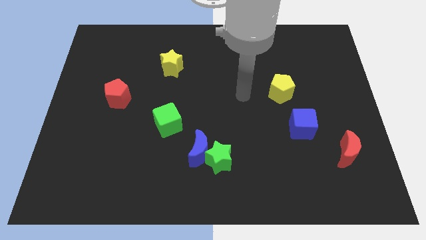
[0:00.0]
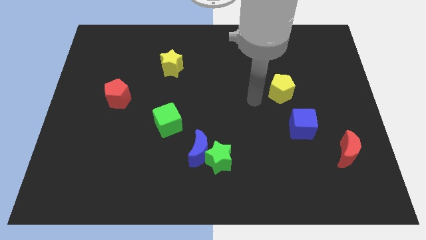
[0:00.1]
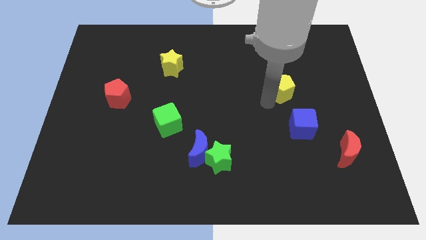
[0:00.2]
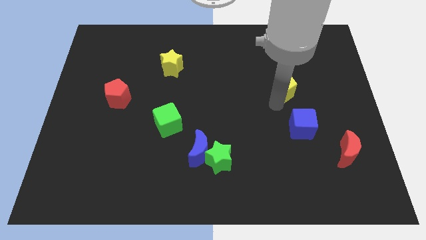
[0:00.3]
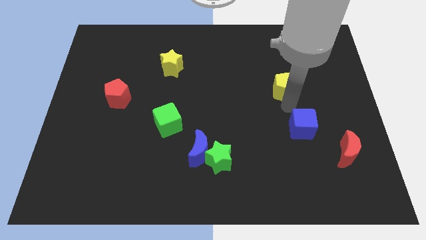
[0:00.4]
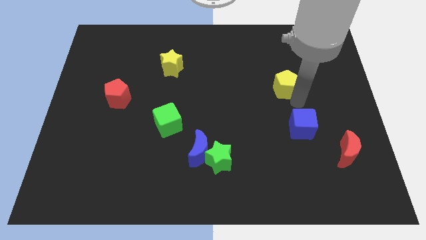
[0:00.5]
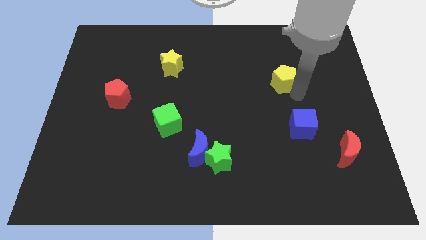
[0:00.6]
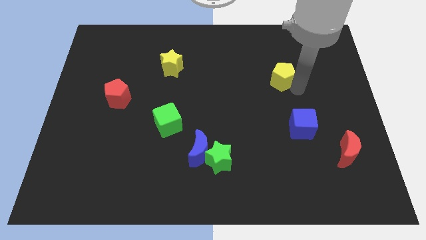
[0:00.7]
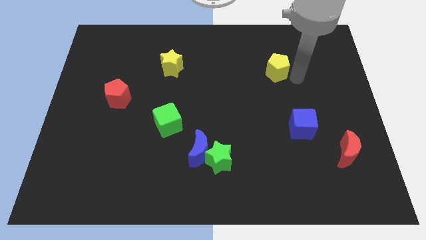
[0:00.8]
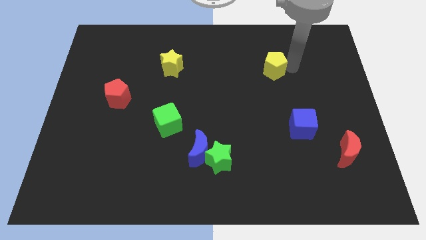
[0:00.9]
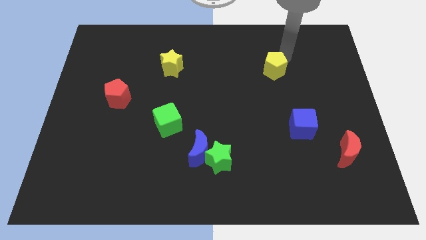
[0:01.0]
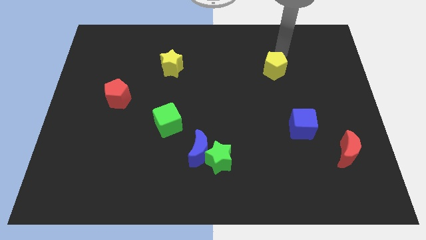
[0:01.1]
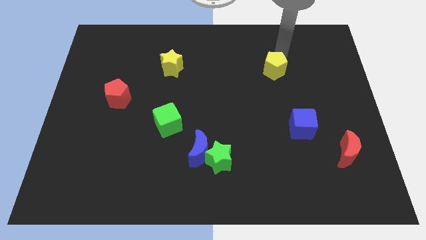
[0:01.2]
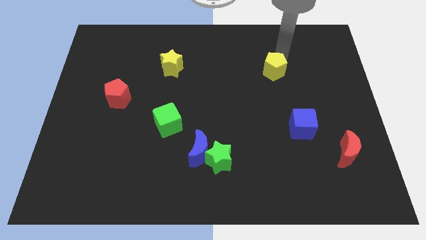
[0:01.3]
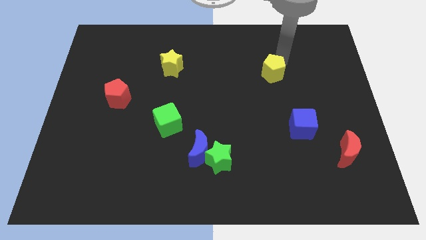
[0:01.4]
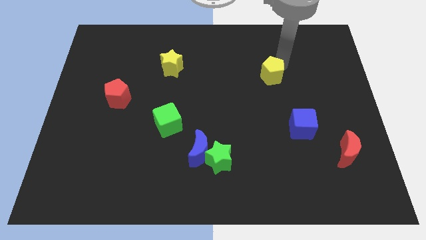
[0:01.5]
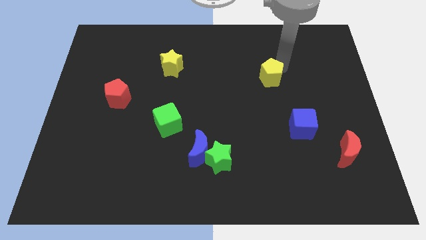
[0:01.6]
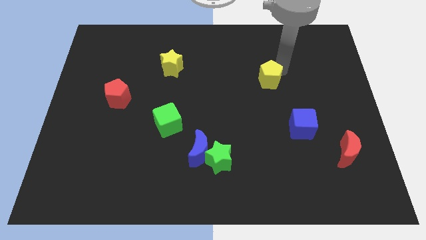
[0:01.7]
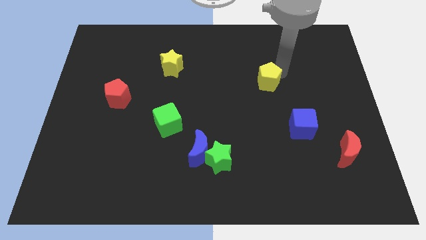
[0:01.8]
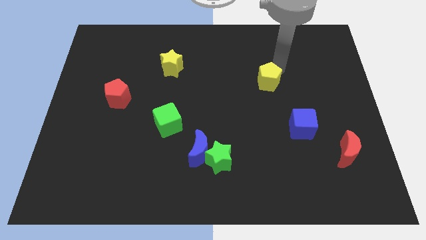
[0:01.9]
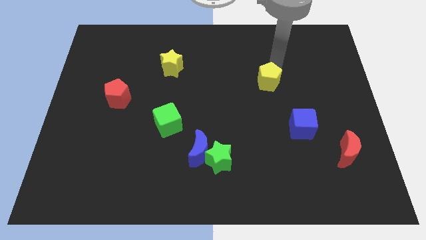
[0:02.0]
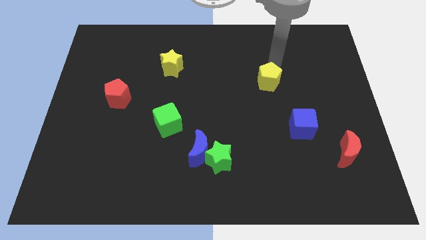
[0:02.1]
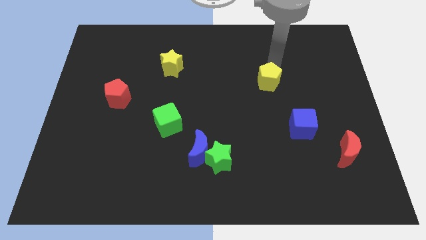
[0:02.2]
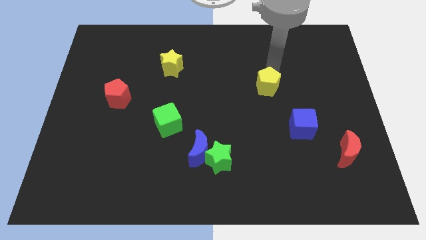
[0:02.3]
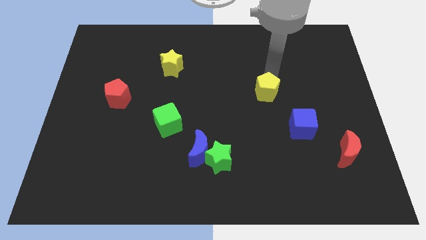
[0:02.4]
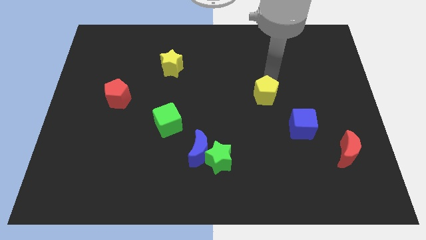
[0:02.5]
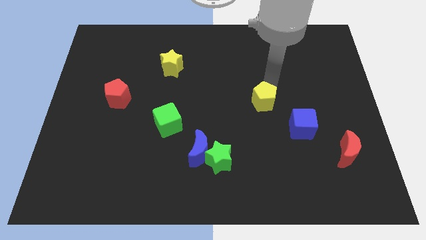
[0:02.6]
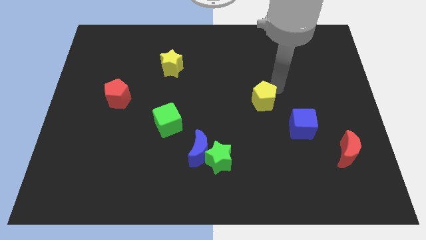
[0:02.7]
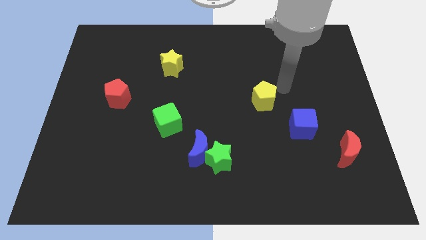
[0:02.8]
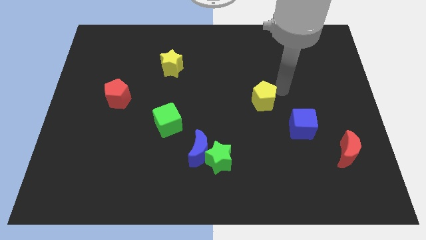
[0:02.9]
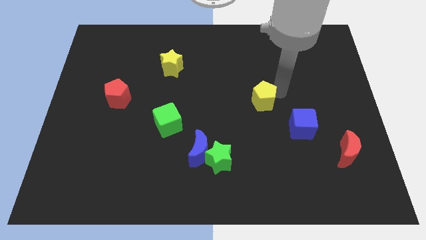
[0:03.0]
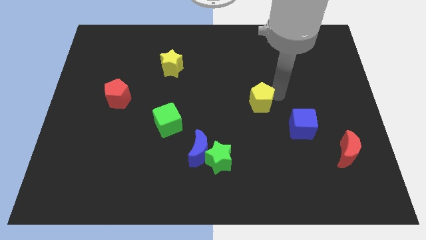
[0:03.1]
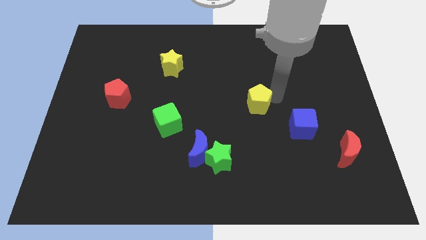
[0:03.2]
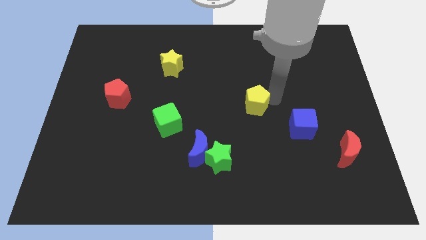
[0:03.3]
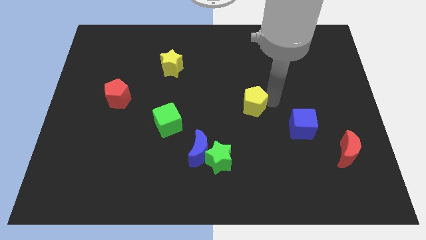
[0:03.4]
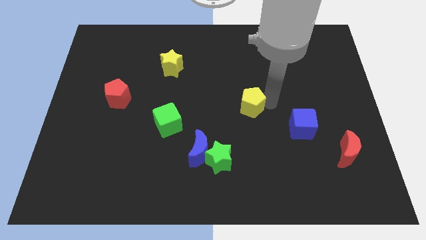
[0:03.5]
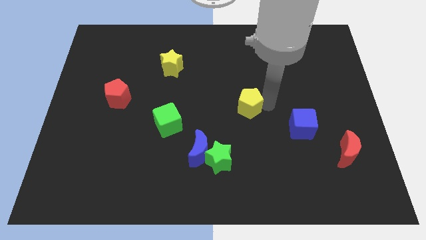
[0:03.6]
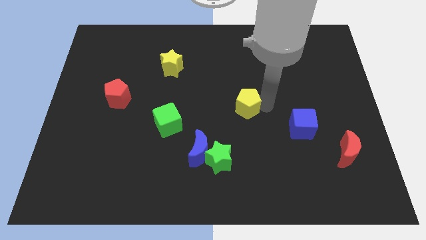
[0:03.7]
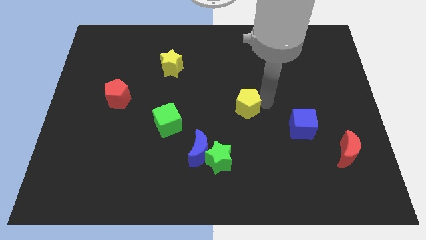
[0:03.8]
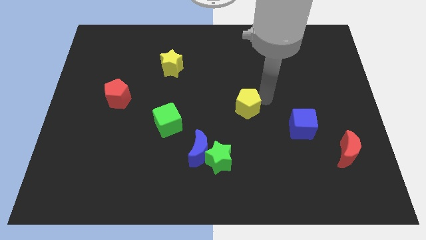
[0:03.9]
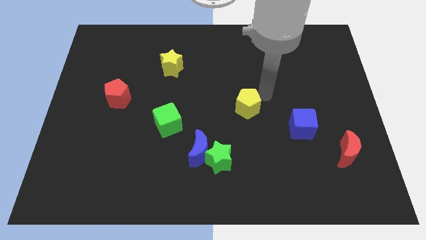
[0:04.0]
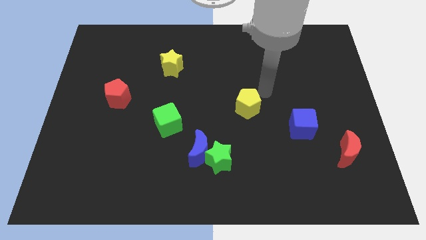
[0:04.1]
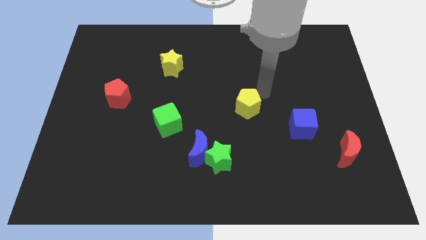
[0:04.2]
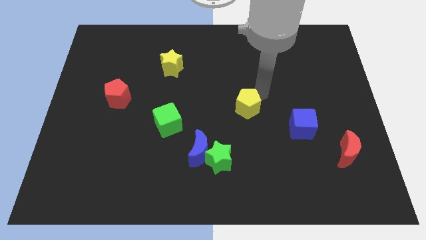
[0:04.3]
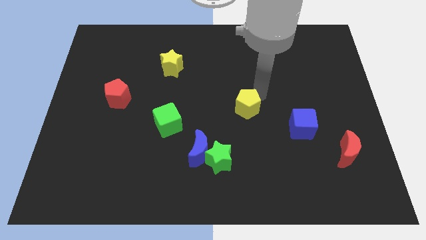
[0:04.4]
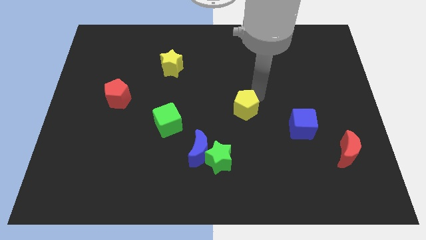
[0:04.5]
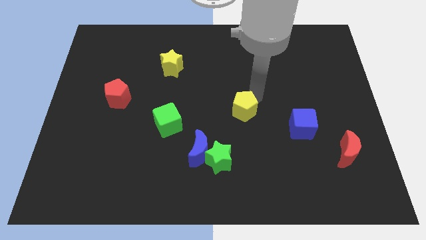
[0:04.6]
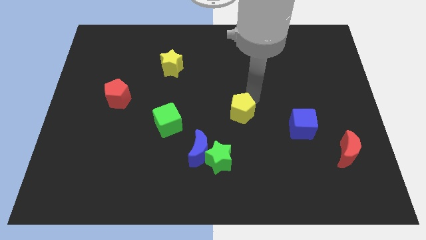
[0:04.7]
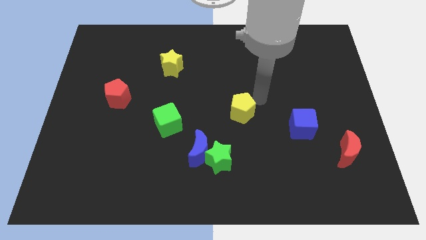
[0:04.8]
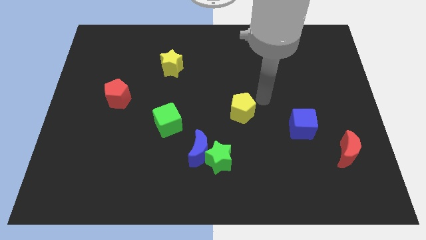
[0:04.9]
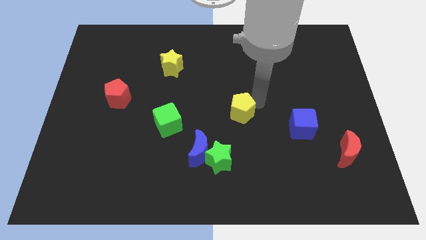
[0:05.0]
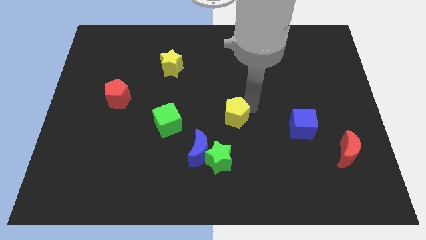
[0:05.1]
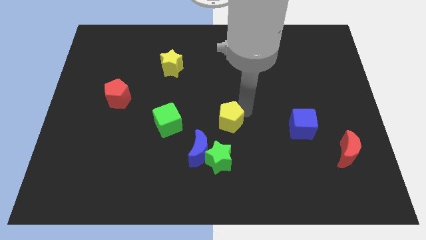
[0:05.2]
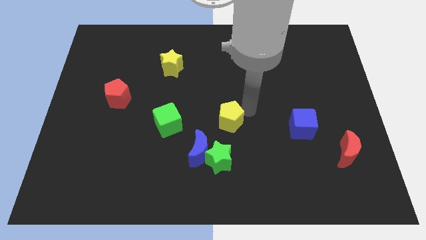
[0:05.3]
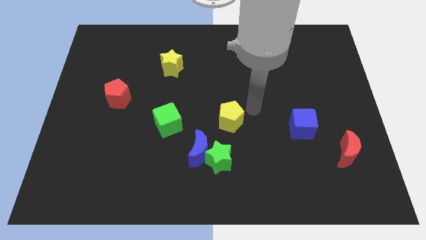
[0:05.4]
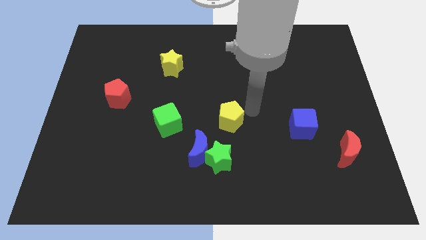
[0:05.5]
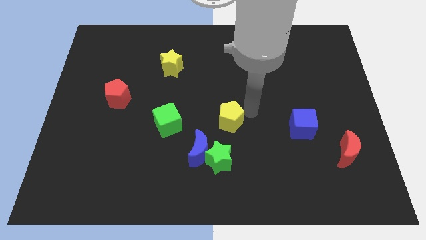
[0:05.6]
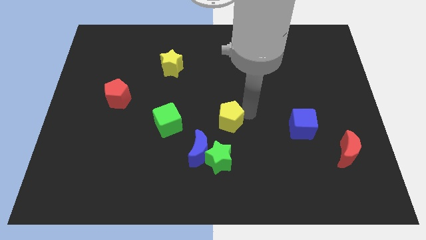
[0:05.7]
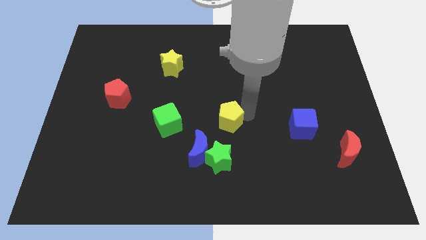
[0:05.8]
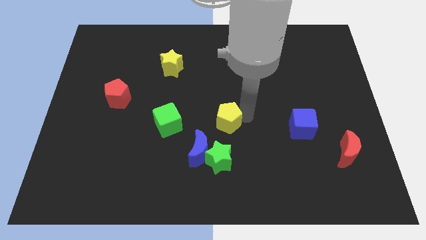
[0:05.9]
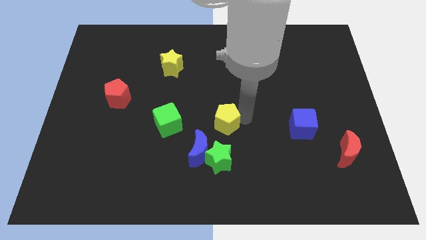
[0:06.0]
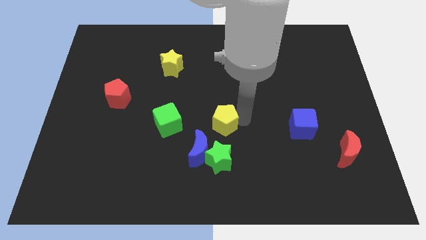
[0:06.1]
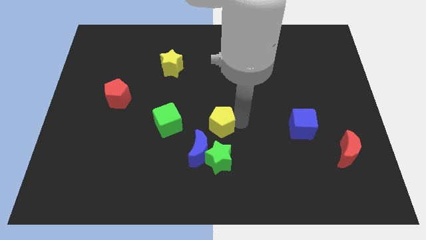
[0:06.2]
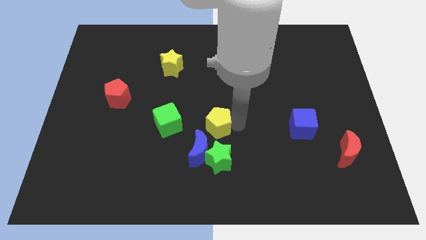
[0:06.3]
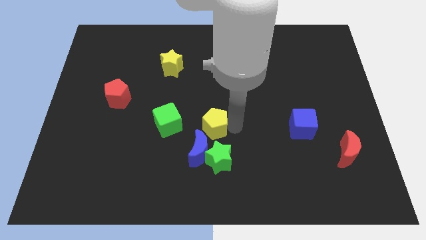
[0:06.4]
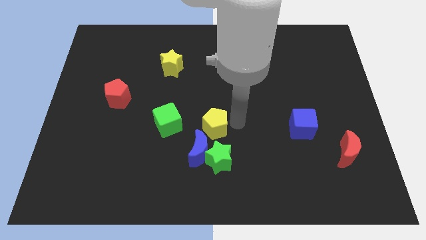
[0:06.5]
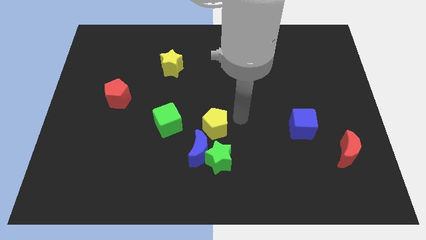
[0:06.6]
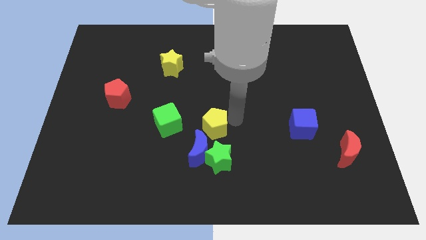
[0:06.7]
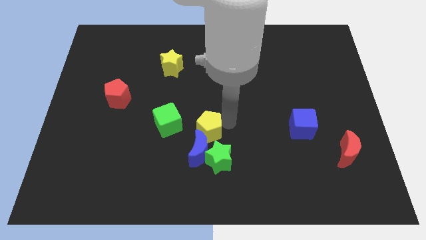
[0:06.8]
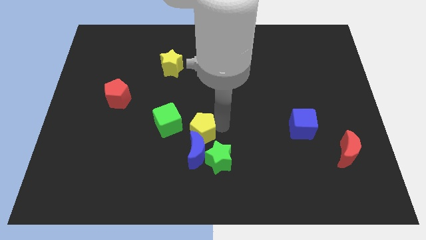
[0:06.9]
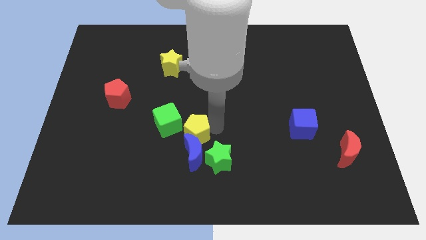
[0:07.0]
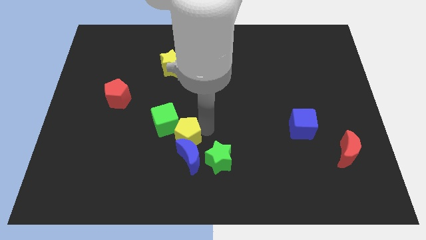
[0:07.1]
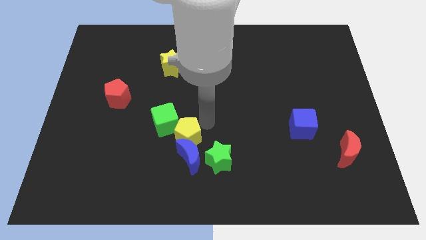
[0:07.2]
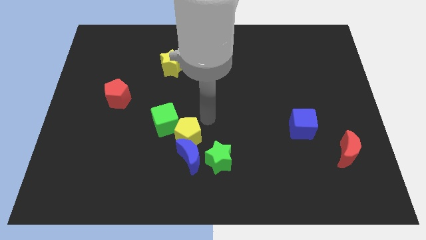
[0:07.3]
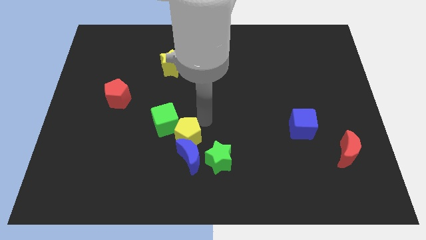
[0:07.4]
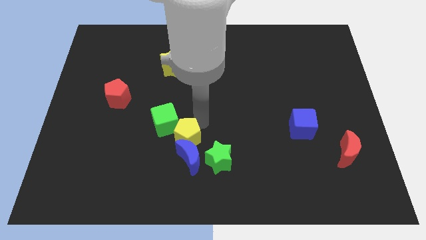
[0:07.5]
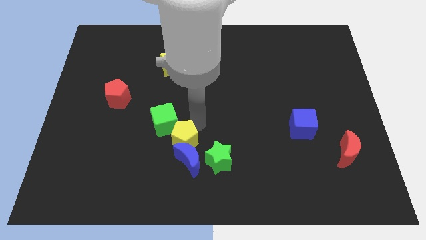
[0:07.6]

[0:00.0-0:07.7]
slide the yellow pentagon to the bottom of the green cube
